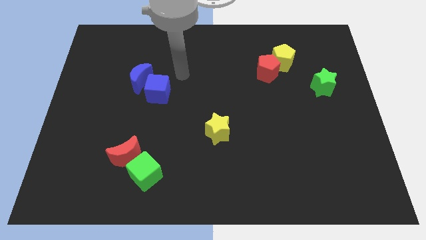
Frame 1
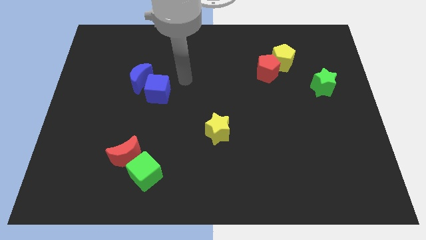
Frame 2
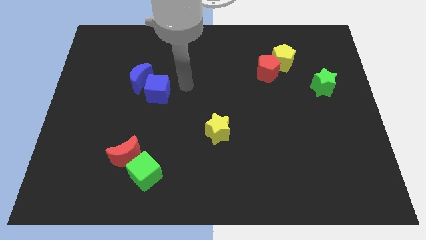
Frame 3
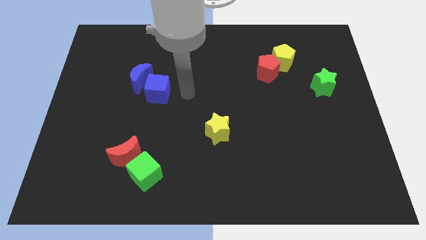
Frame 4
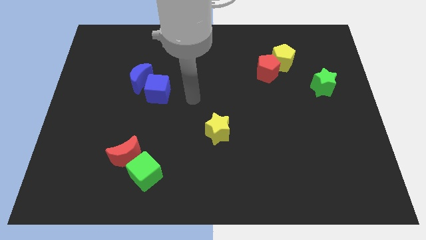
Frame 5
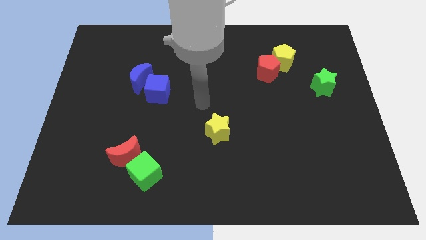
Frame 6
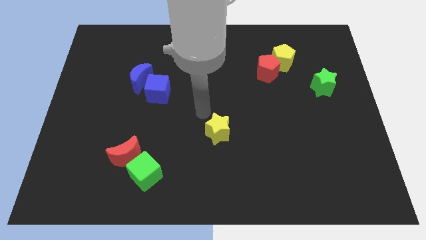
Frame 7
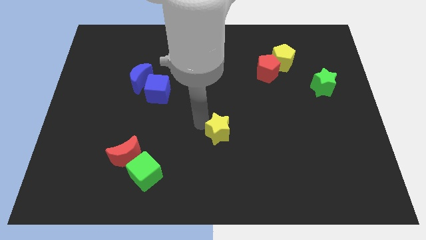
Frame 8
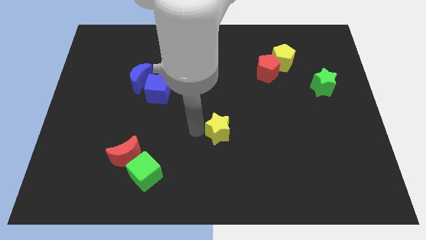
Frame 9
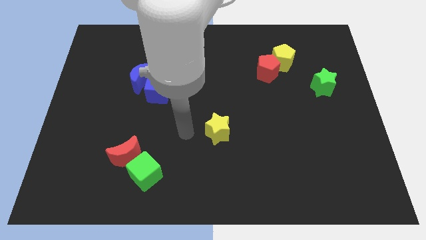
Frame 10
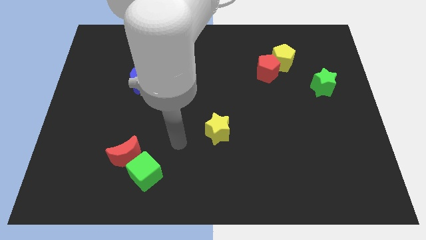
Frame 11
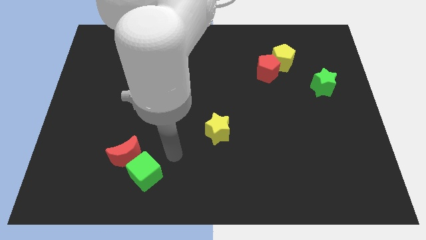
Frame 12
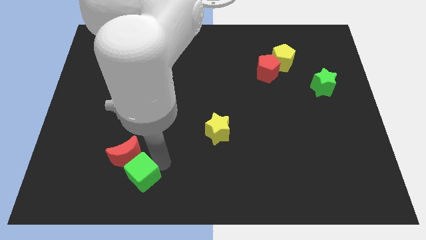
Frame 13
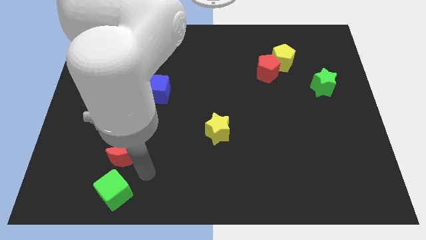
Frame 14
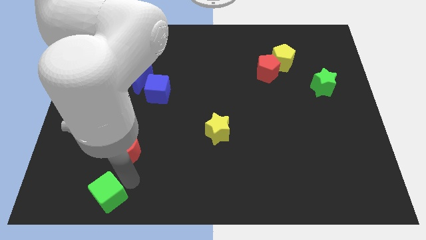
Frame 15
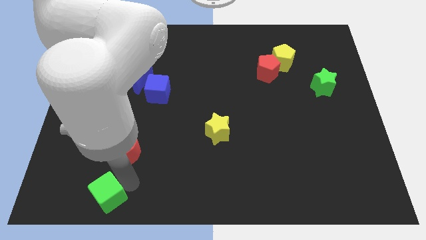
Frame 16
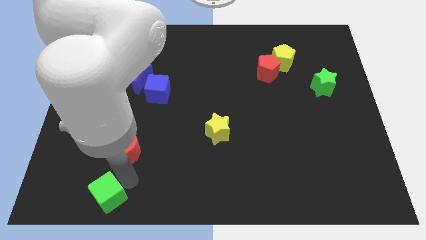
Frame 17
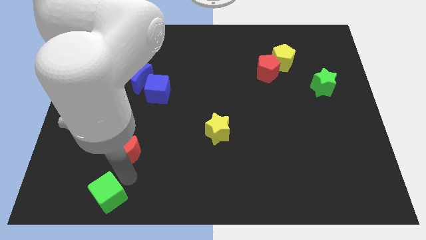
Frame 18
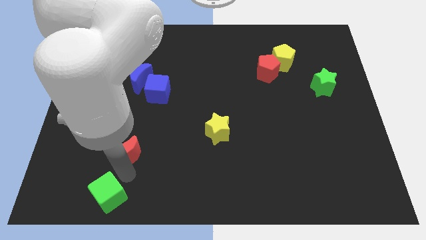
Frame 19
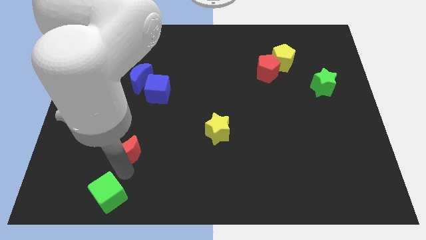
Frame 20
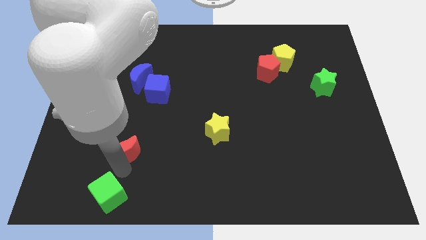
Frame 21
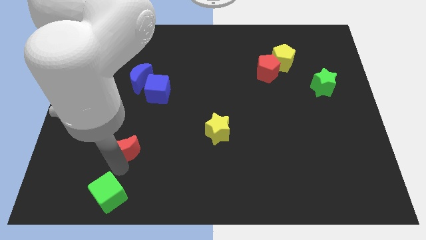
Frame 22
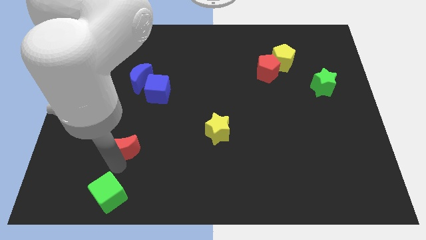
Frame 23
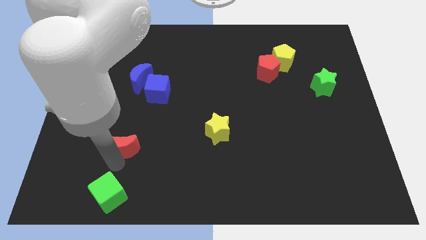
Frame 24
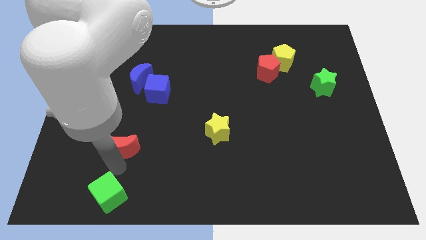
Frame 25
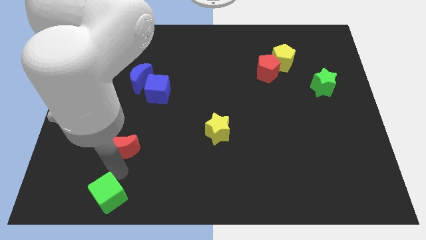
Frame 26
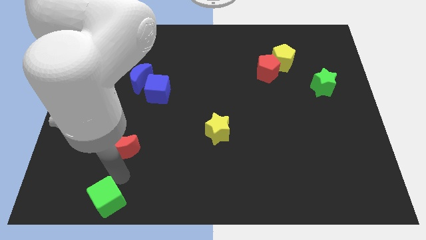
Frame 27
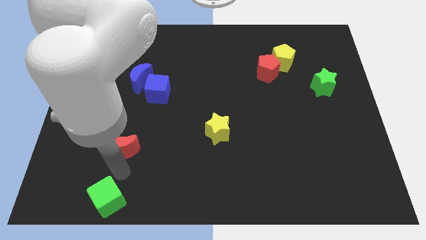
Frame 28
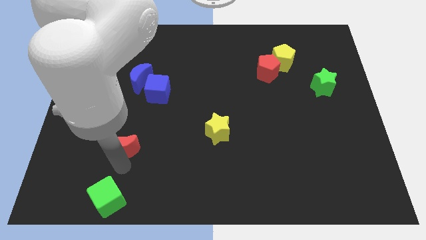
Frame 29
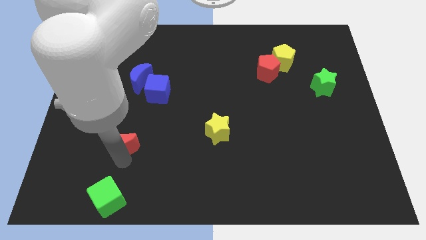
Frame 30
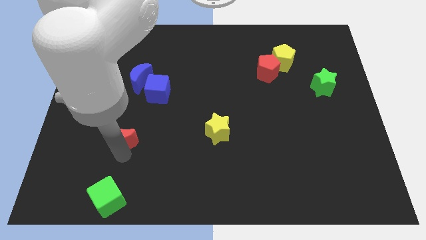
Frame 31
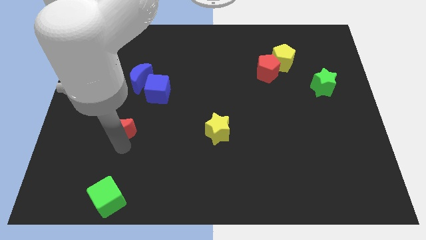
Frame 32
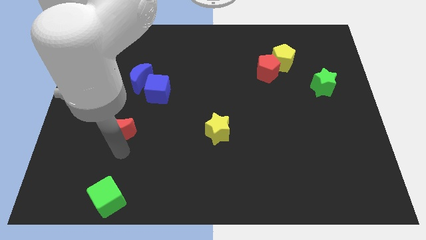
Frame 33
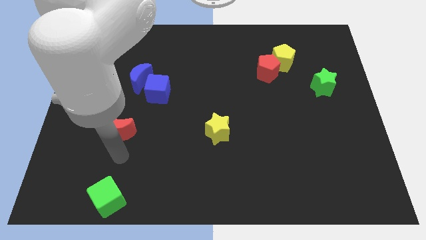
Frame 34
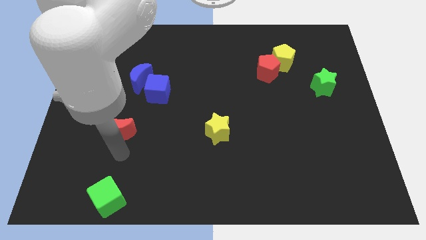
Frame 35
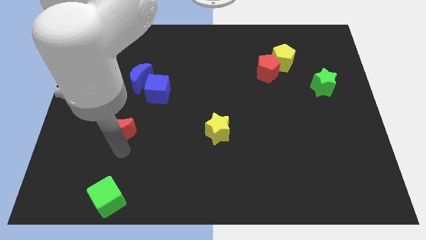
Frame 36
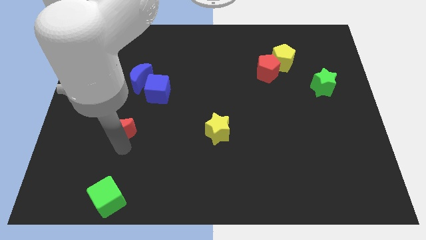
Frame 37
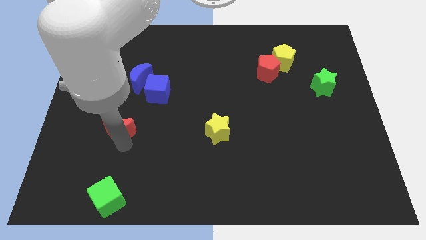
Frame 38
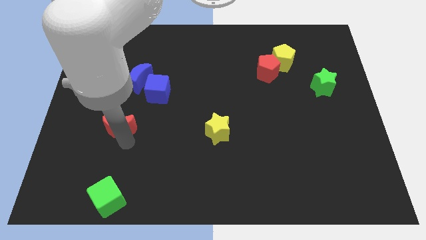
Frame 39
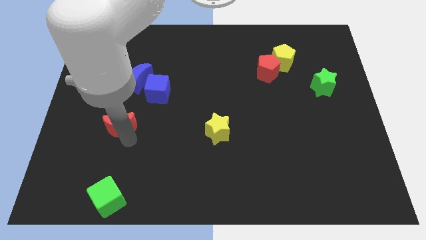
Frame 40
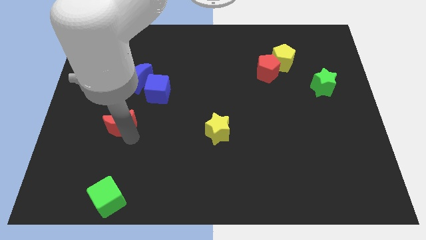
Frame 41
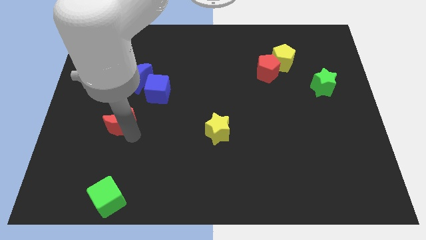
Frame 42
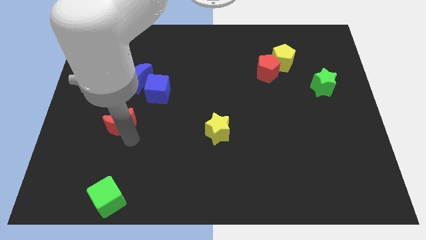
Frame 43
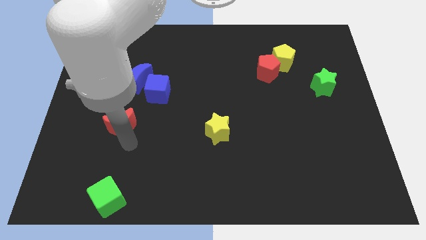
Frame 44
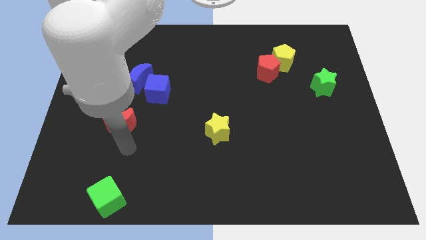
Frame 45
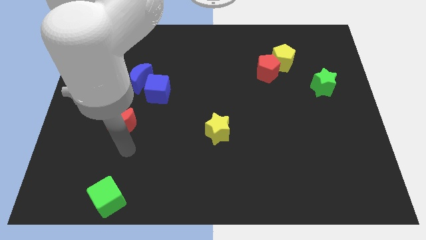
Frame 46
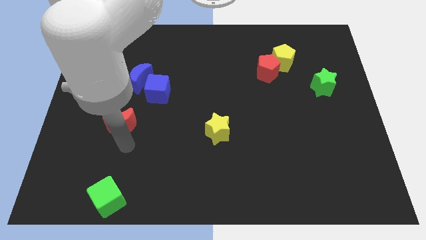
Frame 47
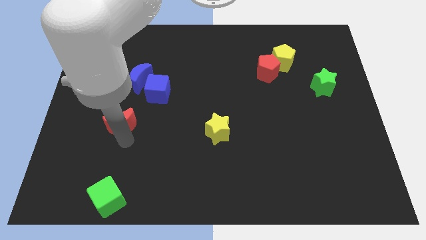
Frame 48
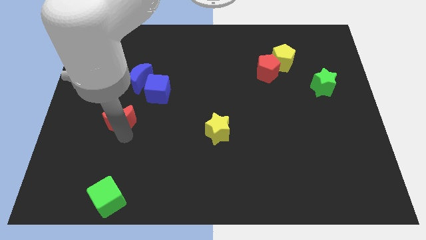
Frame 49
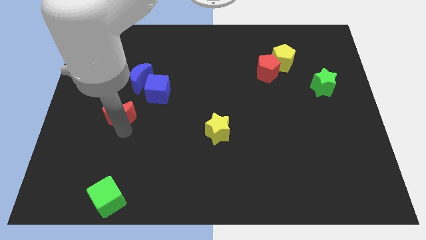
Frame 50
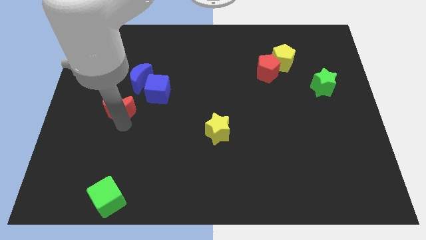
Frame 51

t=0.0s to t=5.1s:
slide the red moon diagonally down and to the left of the blue moon

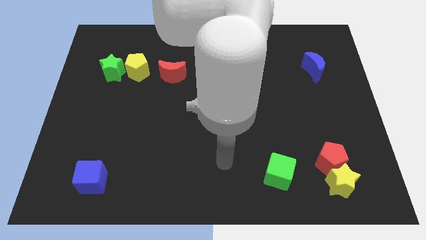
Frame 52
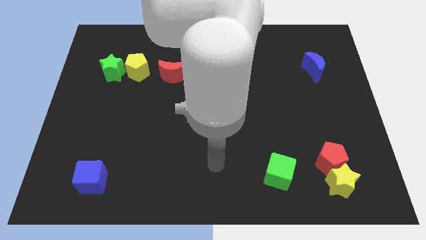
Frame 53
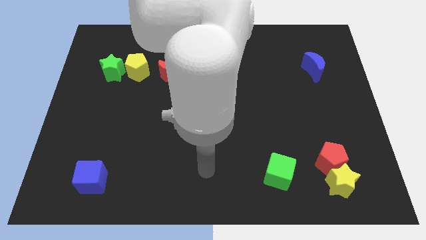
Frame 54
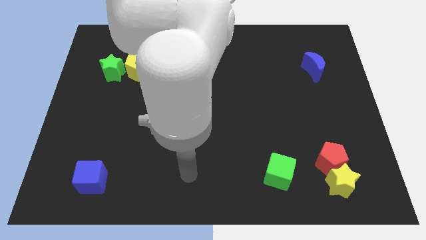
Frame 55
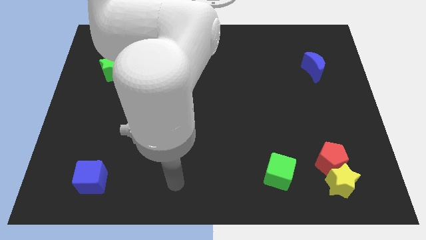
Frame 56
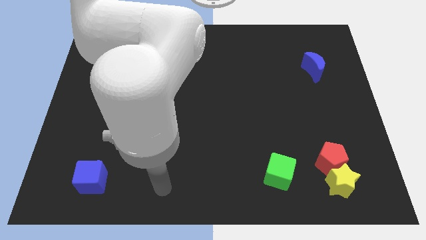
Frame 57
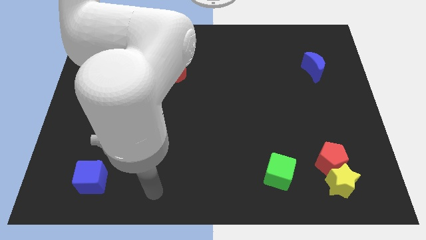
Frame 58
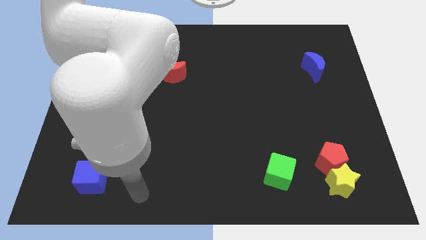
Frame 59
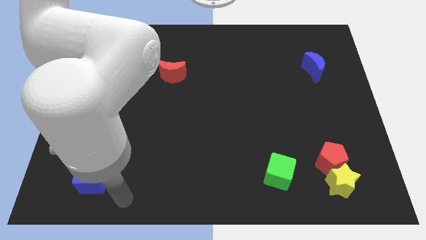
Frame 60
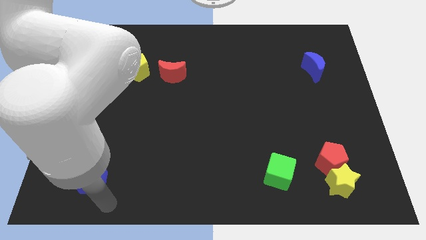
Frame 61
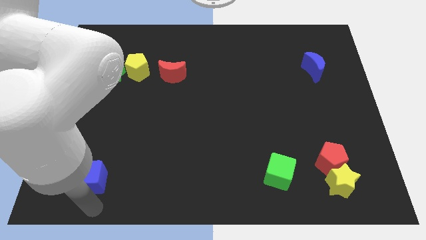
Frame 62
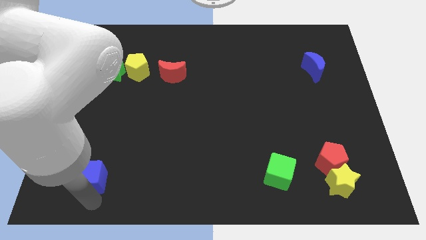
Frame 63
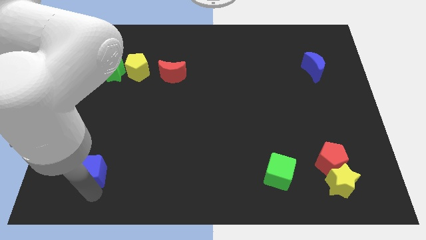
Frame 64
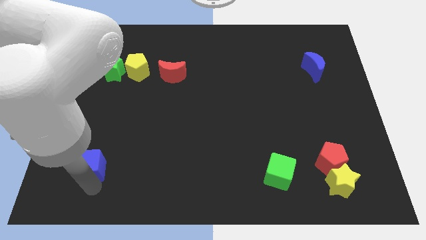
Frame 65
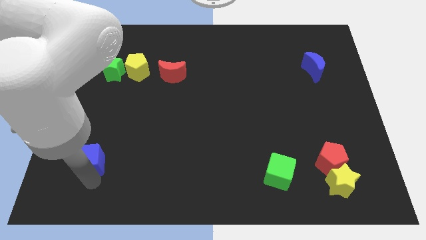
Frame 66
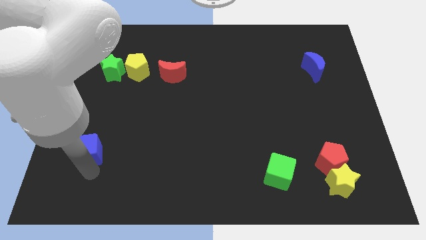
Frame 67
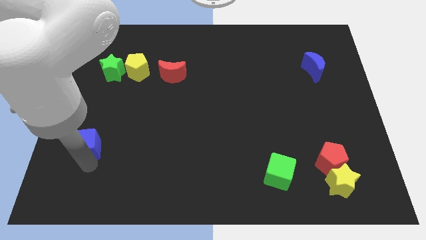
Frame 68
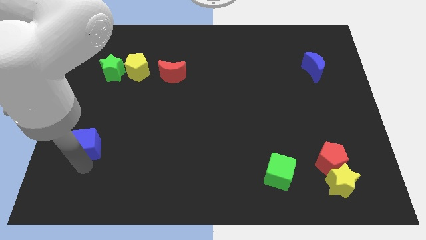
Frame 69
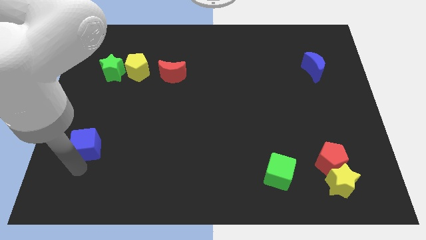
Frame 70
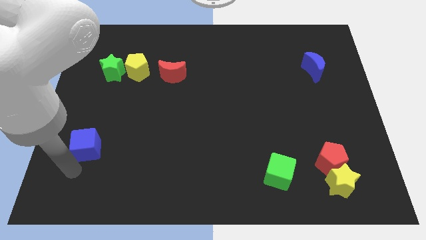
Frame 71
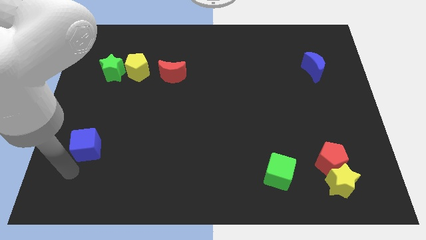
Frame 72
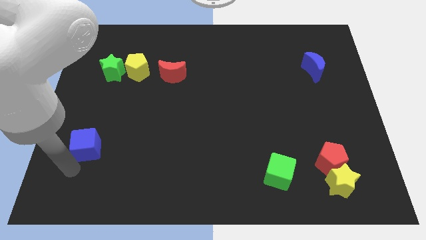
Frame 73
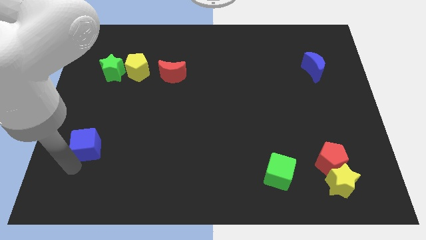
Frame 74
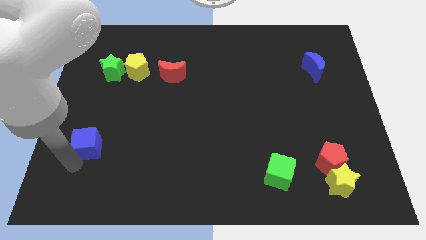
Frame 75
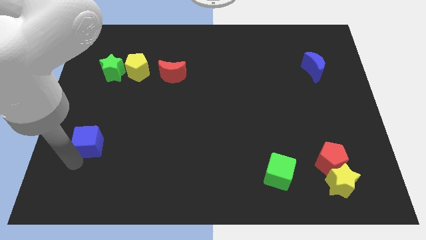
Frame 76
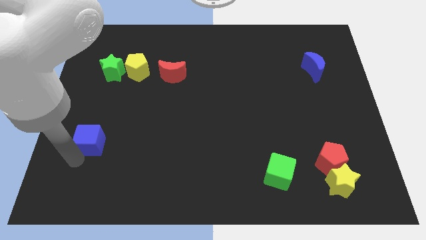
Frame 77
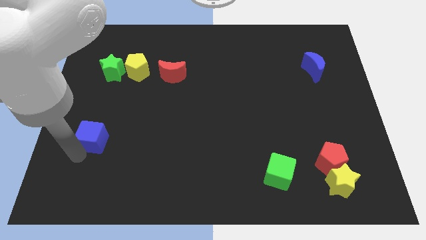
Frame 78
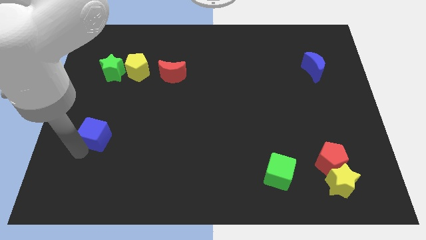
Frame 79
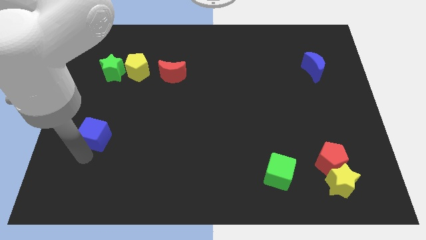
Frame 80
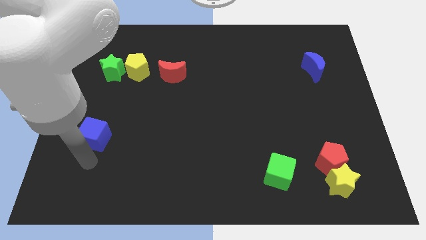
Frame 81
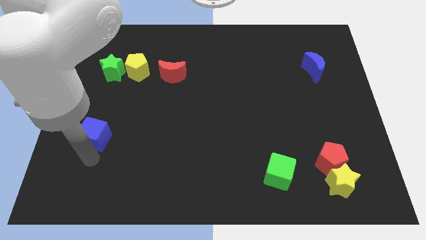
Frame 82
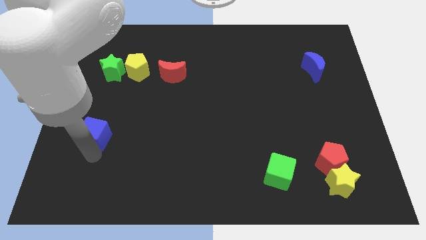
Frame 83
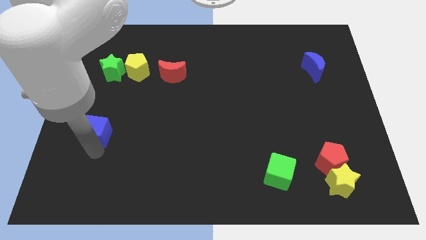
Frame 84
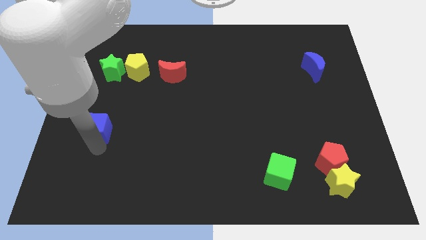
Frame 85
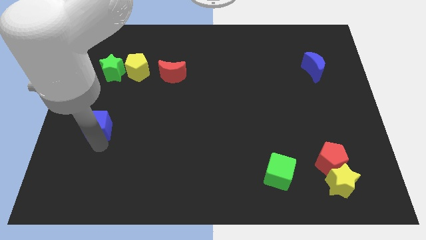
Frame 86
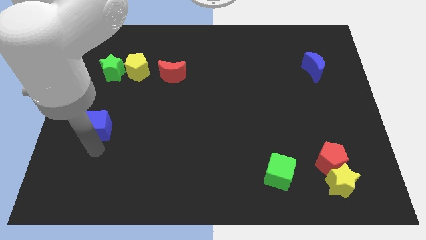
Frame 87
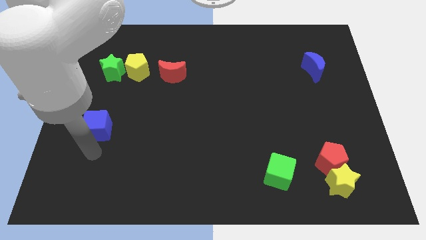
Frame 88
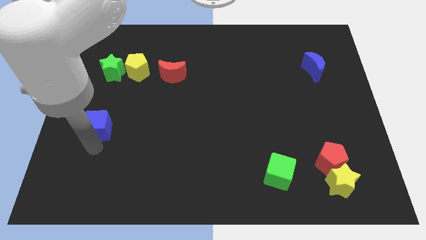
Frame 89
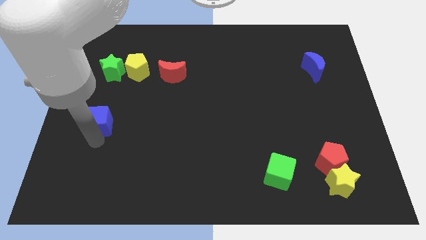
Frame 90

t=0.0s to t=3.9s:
put the blue cube below the green star
